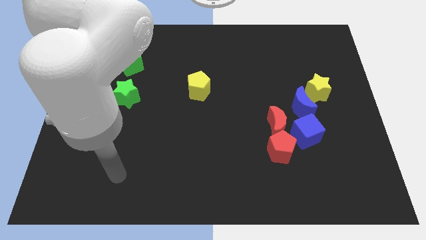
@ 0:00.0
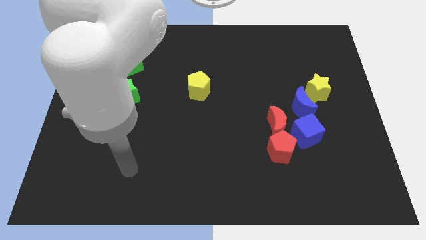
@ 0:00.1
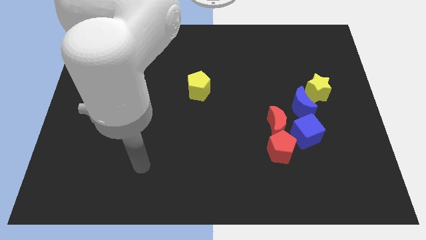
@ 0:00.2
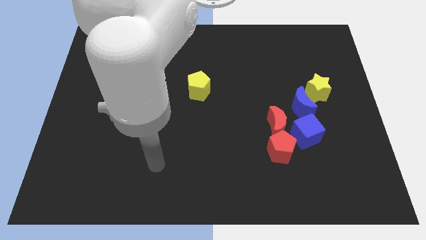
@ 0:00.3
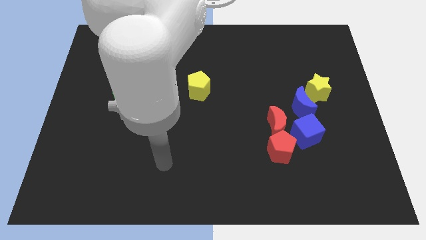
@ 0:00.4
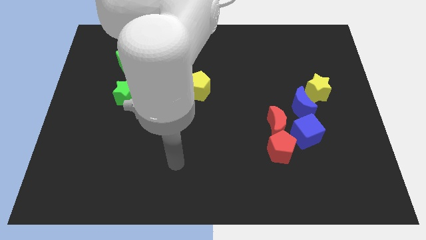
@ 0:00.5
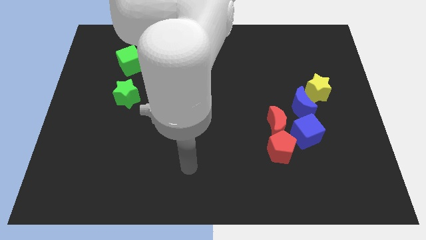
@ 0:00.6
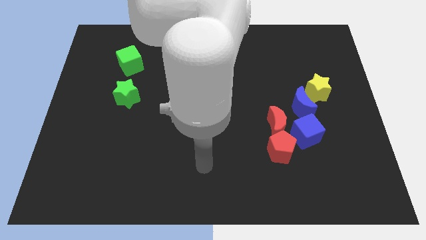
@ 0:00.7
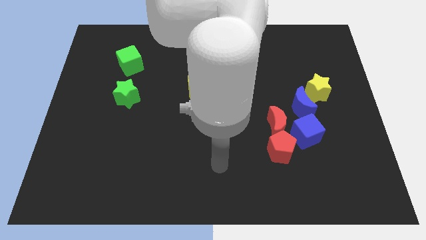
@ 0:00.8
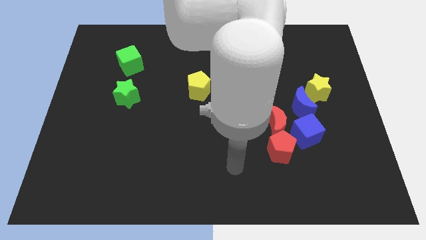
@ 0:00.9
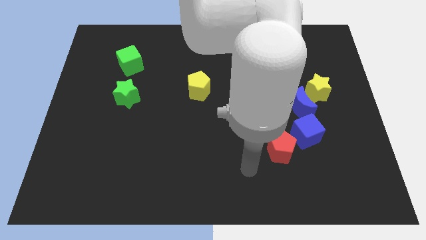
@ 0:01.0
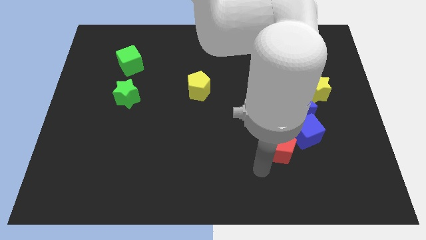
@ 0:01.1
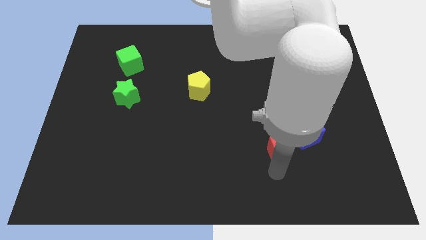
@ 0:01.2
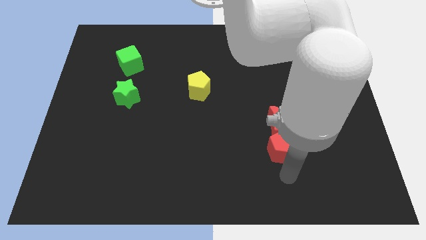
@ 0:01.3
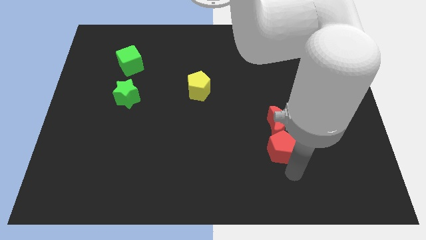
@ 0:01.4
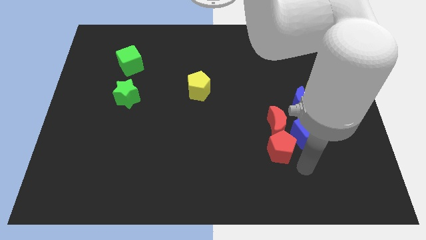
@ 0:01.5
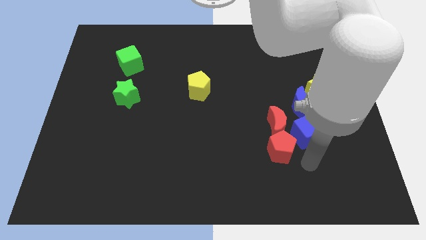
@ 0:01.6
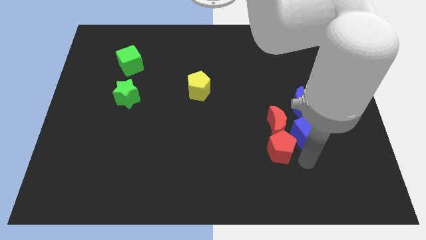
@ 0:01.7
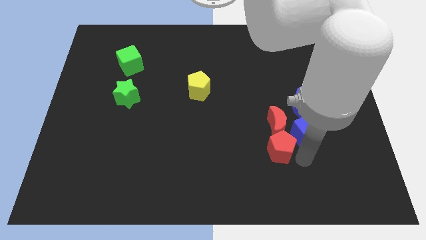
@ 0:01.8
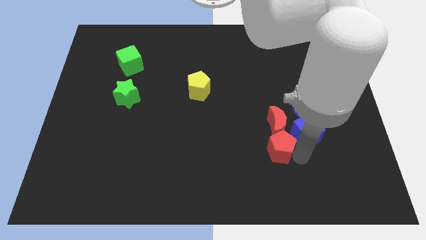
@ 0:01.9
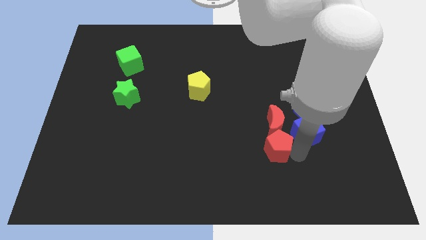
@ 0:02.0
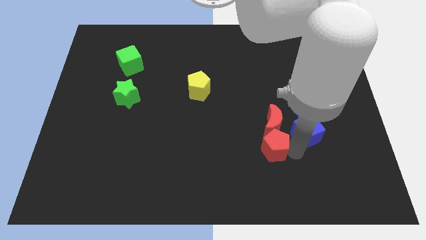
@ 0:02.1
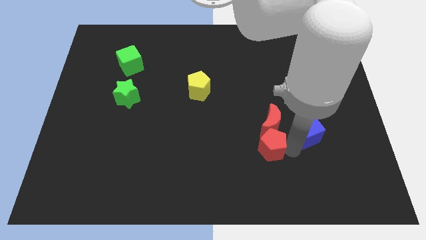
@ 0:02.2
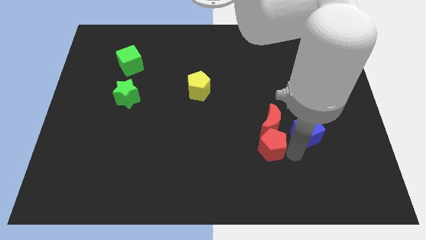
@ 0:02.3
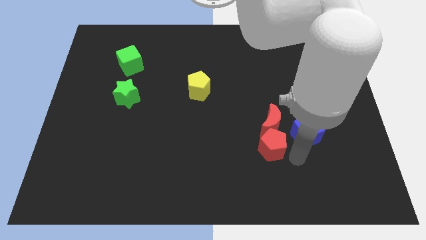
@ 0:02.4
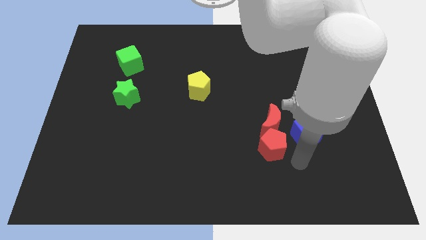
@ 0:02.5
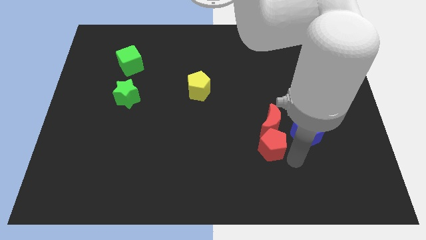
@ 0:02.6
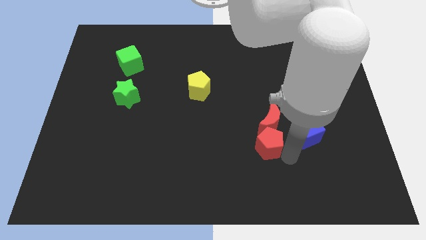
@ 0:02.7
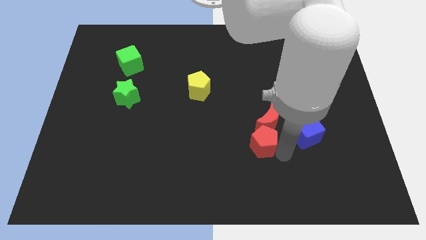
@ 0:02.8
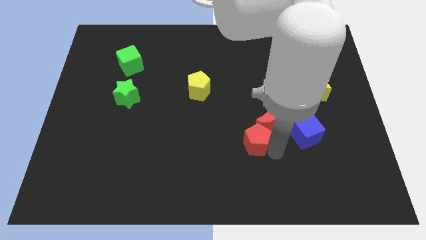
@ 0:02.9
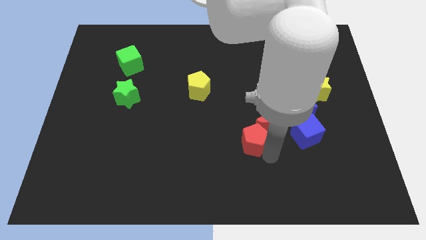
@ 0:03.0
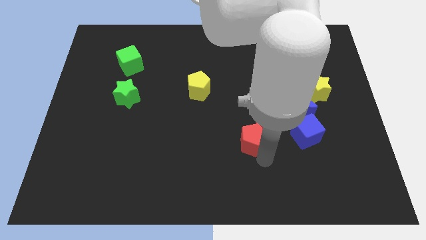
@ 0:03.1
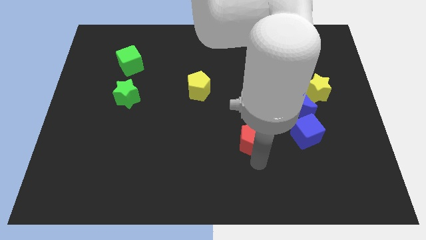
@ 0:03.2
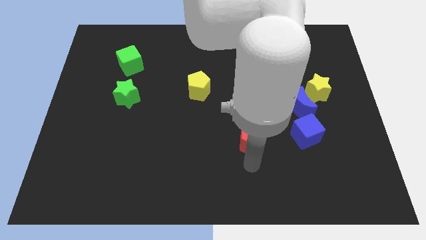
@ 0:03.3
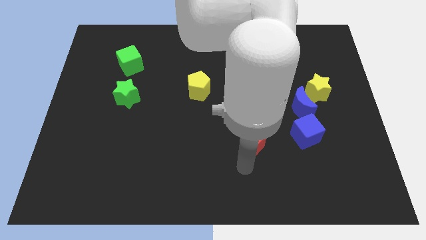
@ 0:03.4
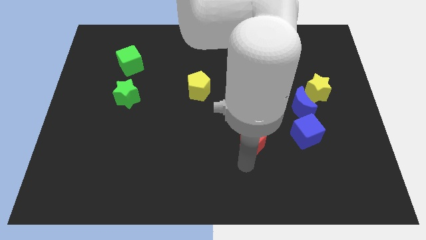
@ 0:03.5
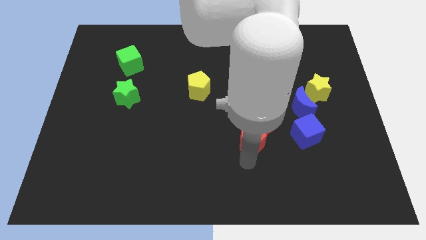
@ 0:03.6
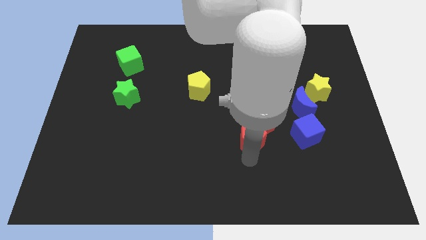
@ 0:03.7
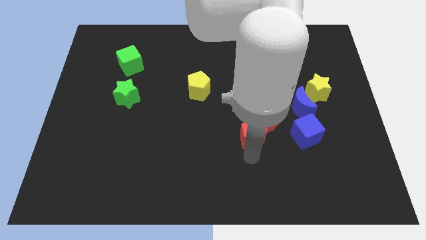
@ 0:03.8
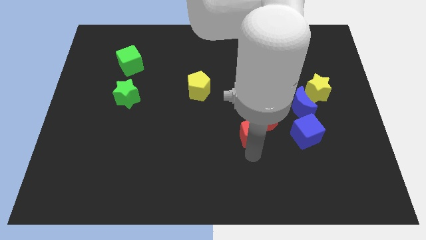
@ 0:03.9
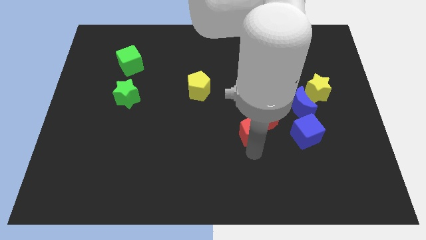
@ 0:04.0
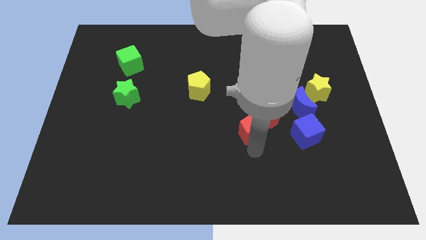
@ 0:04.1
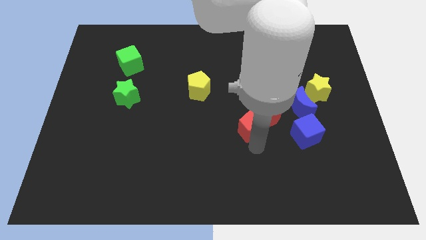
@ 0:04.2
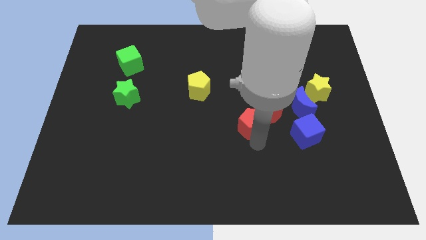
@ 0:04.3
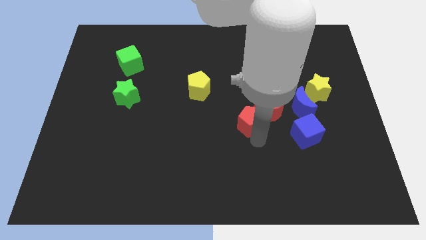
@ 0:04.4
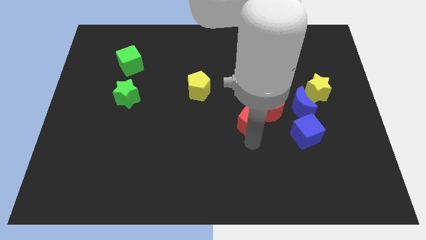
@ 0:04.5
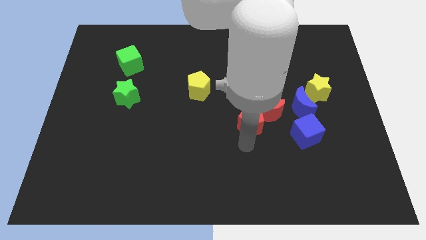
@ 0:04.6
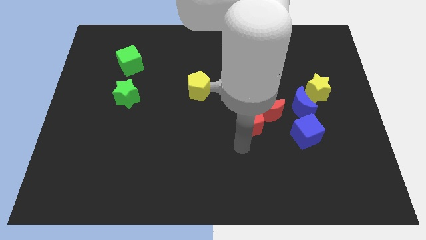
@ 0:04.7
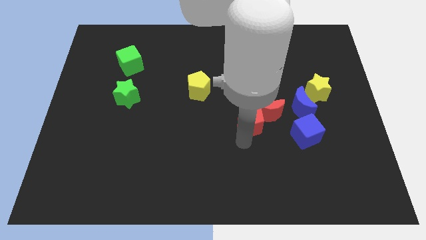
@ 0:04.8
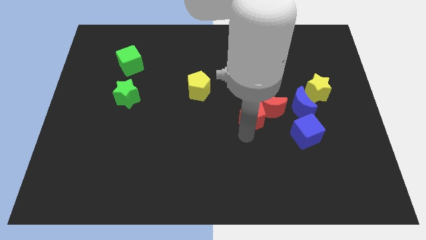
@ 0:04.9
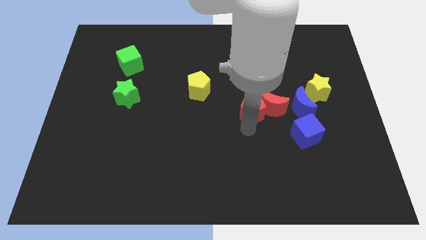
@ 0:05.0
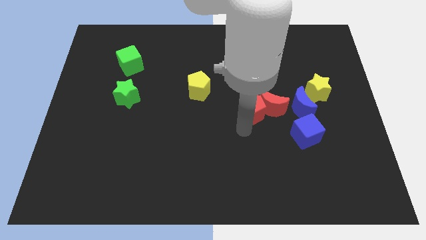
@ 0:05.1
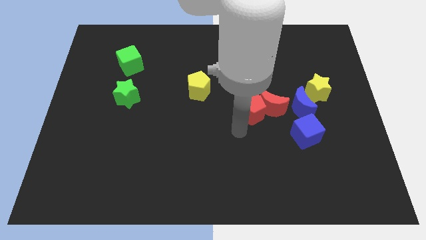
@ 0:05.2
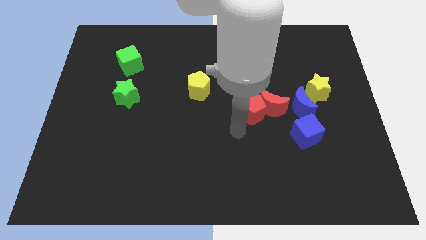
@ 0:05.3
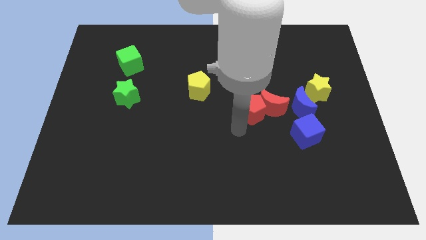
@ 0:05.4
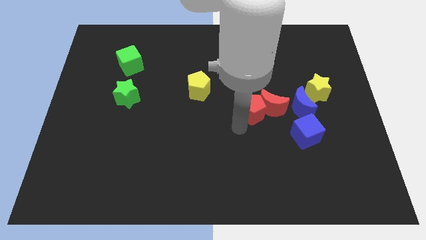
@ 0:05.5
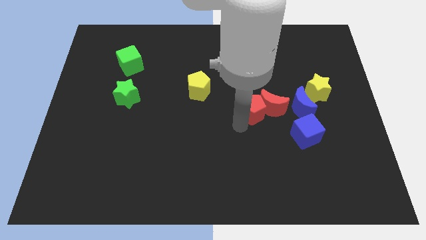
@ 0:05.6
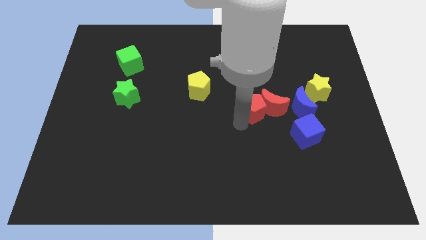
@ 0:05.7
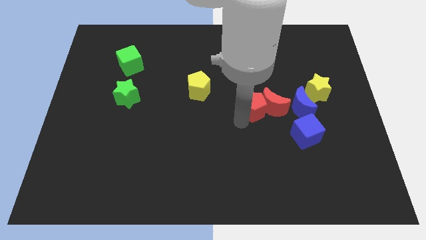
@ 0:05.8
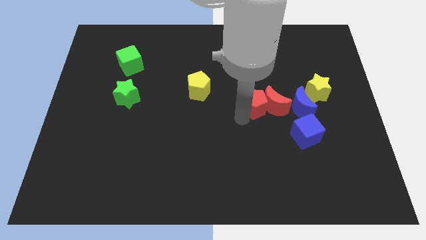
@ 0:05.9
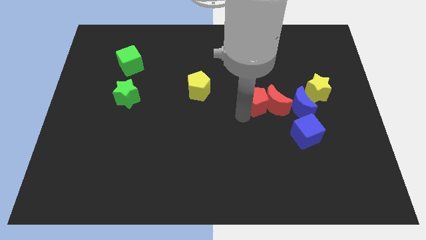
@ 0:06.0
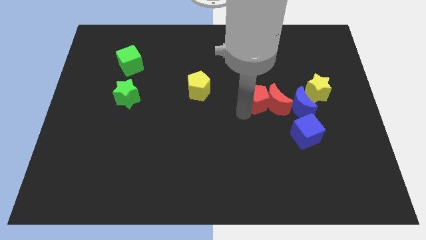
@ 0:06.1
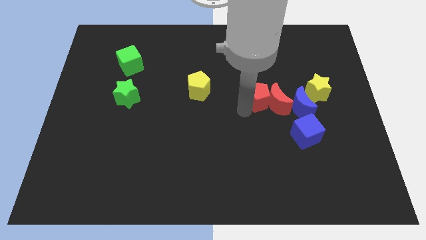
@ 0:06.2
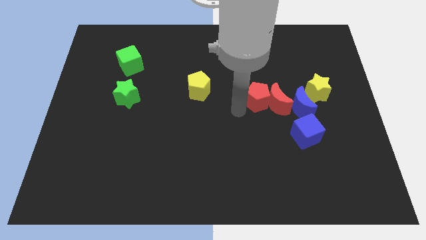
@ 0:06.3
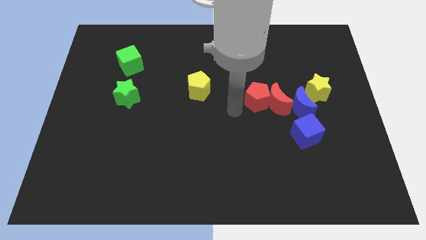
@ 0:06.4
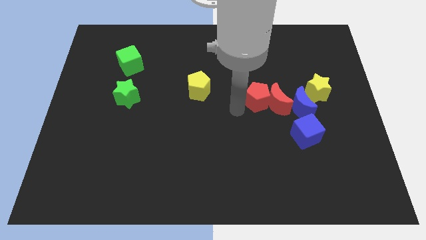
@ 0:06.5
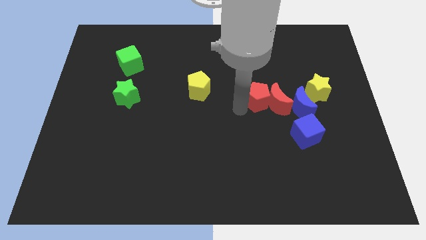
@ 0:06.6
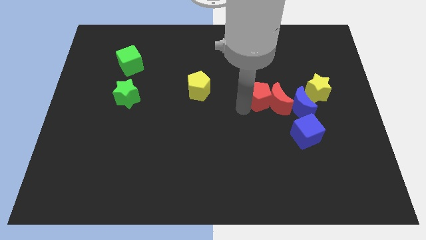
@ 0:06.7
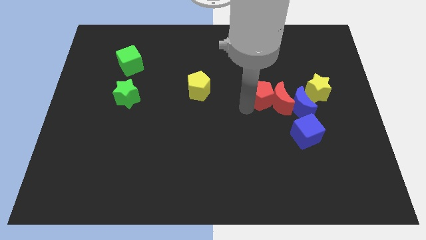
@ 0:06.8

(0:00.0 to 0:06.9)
move the red pentagon to the top left side of the blue moon

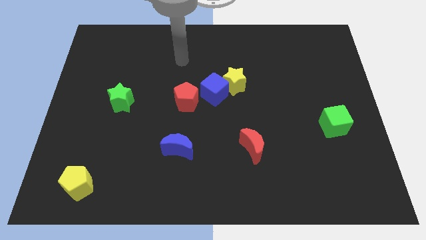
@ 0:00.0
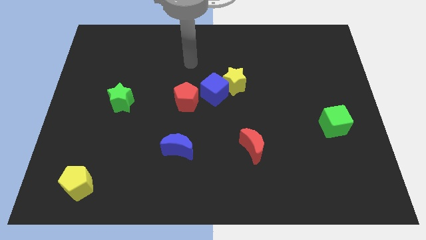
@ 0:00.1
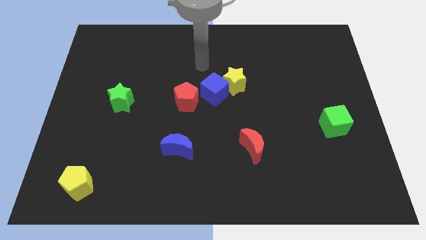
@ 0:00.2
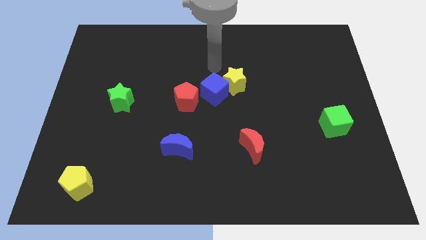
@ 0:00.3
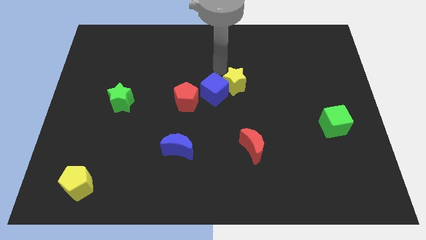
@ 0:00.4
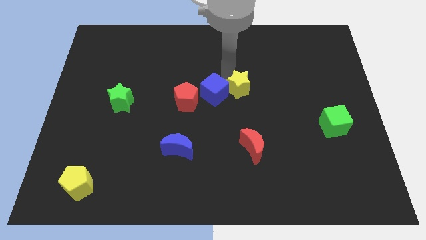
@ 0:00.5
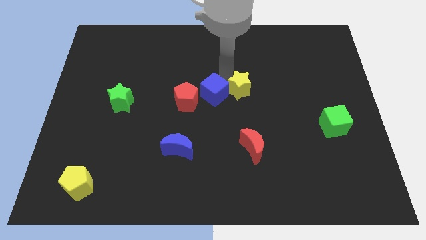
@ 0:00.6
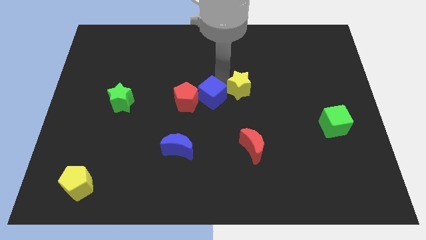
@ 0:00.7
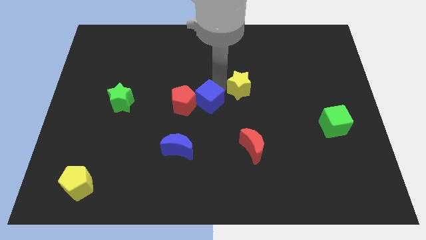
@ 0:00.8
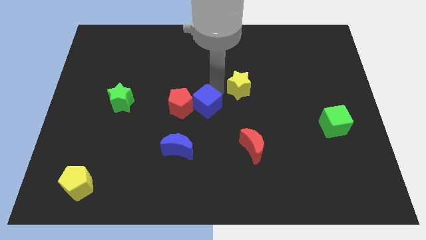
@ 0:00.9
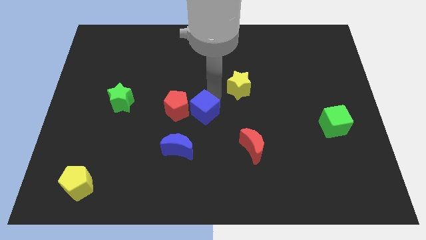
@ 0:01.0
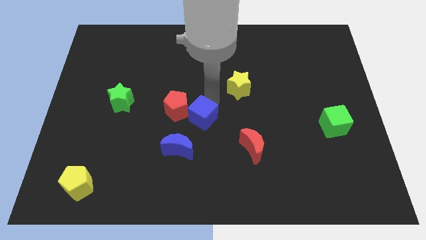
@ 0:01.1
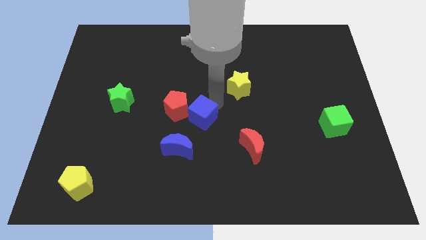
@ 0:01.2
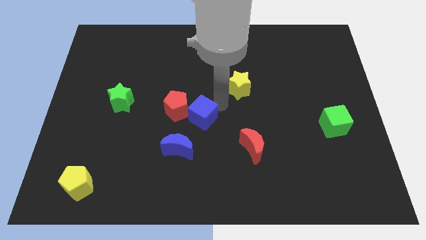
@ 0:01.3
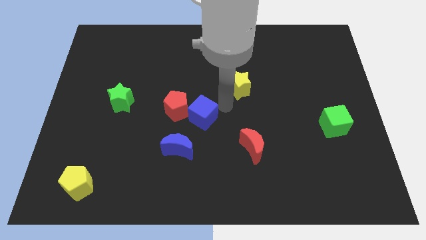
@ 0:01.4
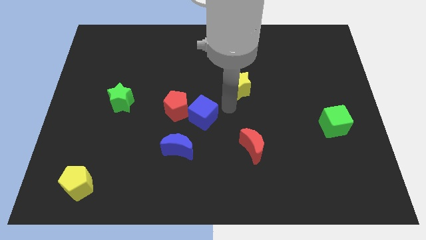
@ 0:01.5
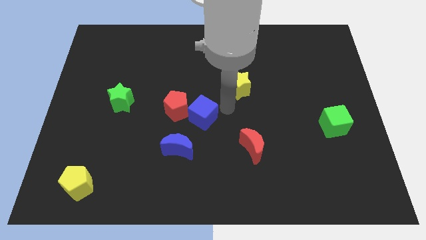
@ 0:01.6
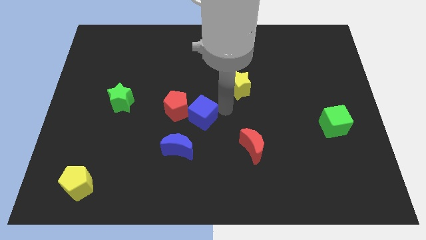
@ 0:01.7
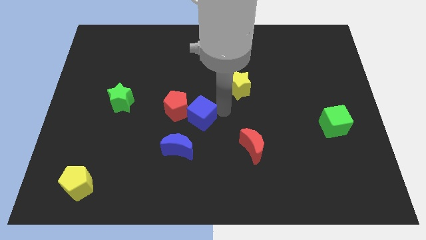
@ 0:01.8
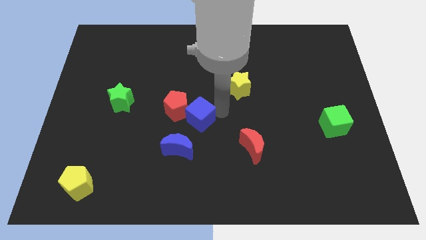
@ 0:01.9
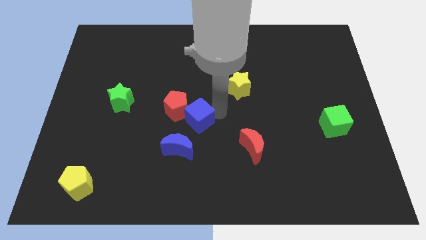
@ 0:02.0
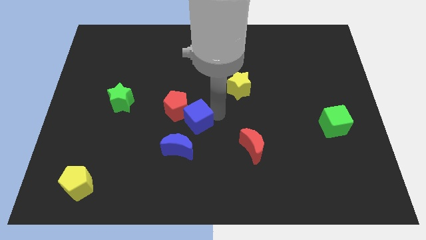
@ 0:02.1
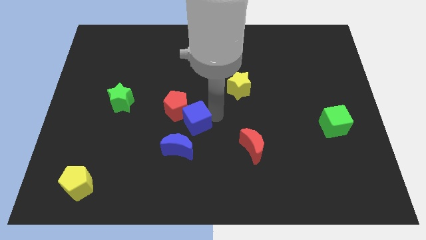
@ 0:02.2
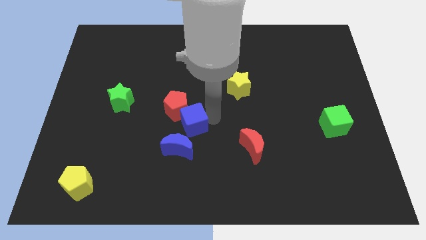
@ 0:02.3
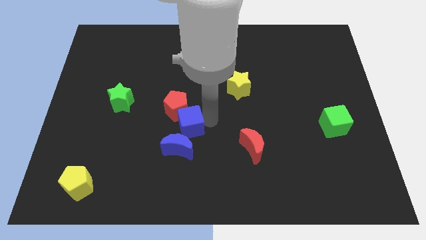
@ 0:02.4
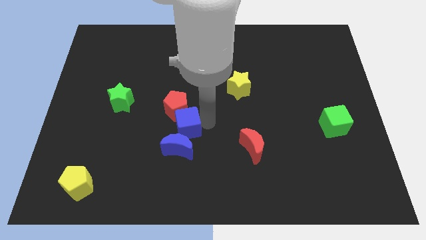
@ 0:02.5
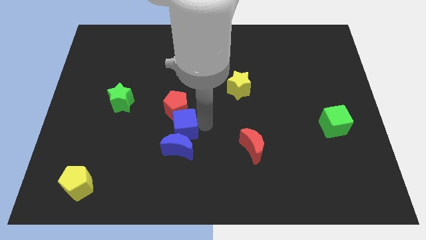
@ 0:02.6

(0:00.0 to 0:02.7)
push the blue cube to the top left of the blue moon
